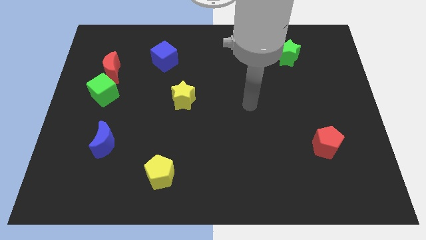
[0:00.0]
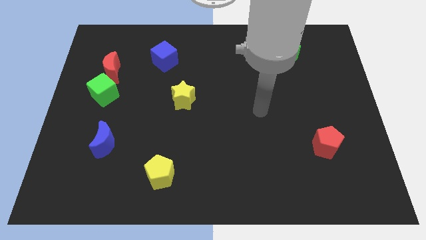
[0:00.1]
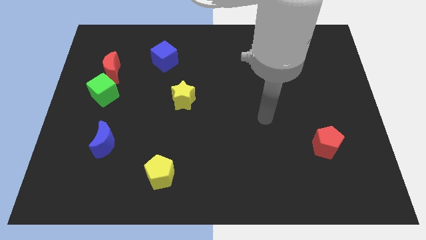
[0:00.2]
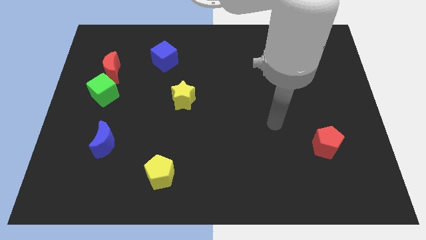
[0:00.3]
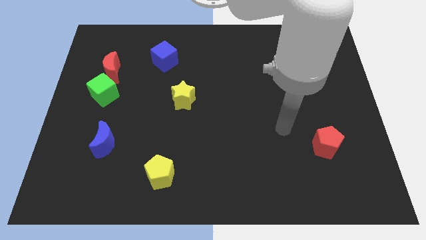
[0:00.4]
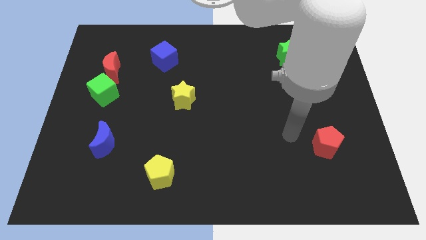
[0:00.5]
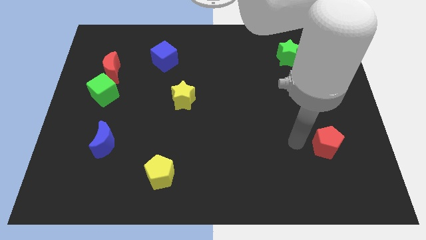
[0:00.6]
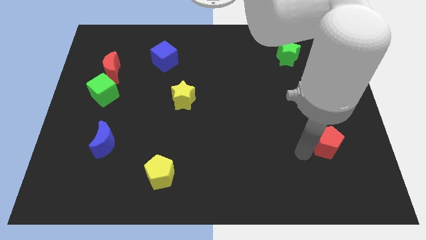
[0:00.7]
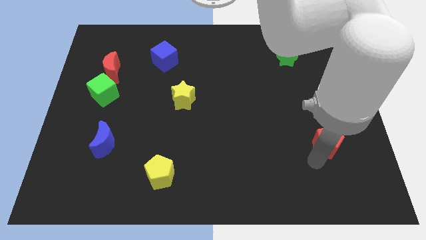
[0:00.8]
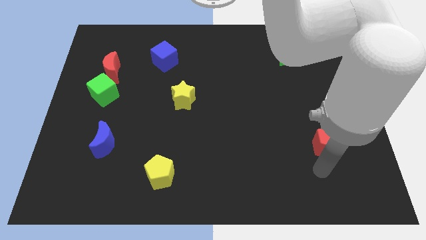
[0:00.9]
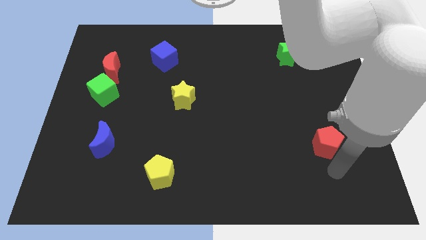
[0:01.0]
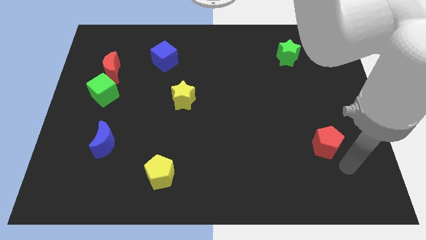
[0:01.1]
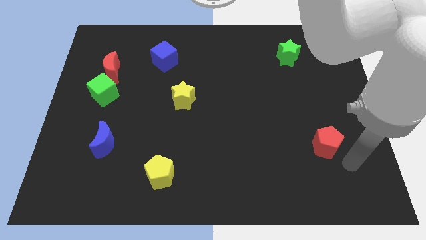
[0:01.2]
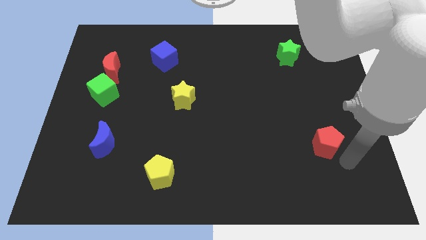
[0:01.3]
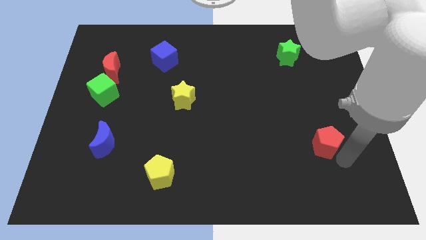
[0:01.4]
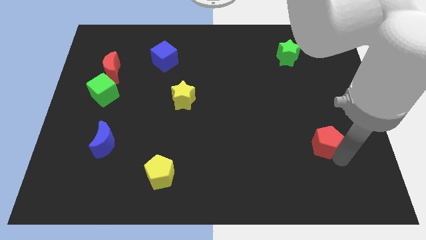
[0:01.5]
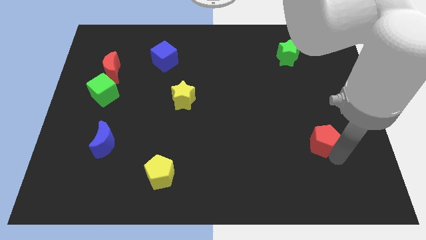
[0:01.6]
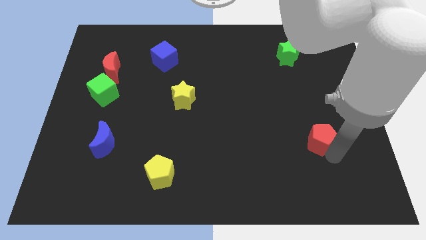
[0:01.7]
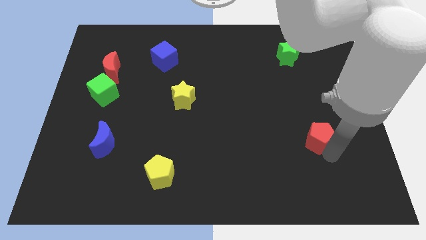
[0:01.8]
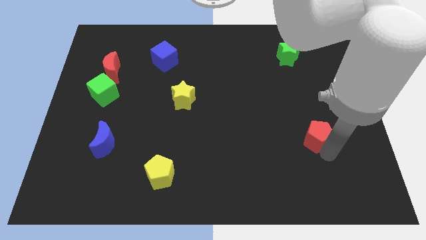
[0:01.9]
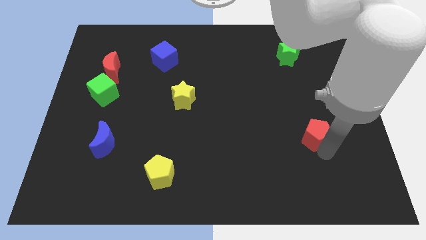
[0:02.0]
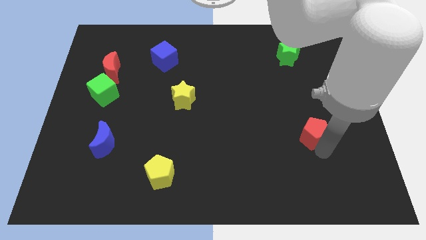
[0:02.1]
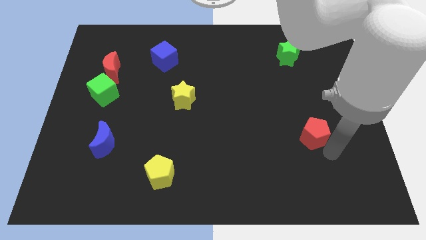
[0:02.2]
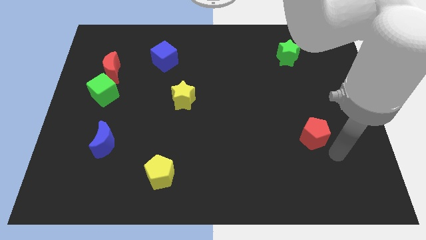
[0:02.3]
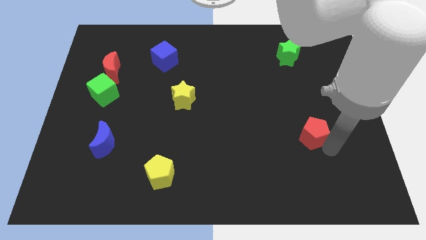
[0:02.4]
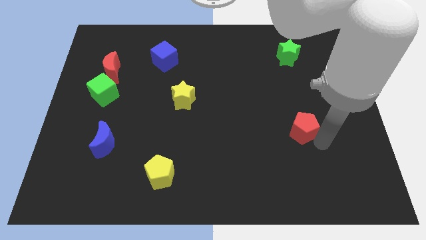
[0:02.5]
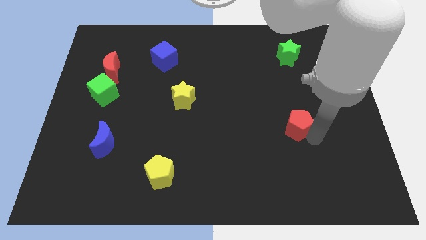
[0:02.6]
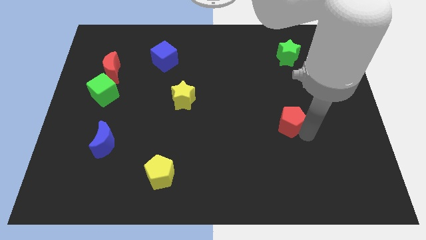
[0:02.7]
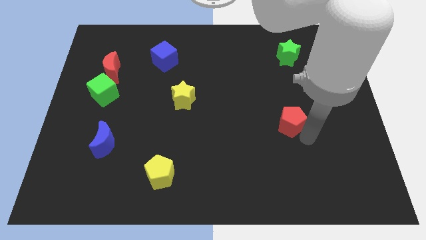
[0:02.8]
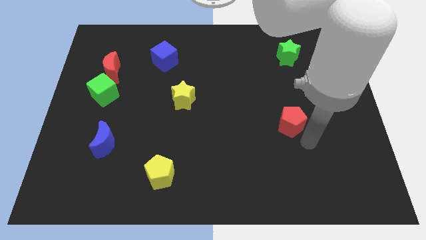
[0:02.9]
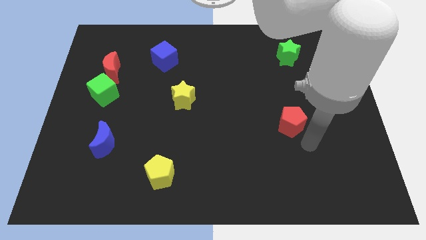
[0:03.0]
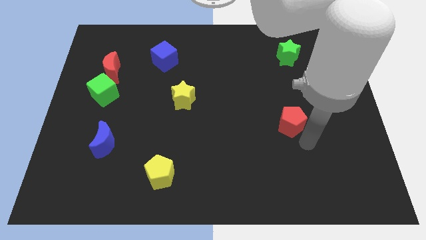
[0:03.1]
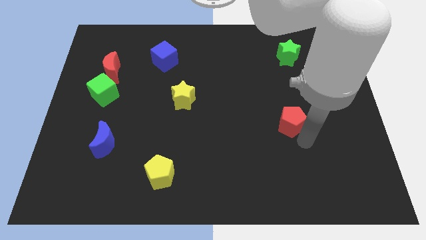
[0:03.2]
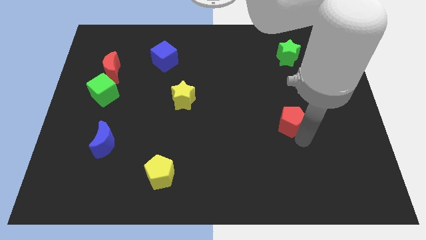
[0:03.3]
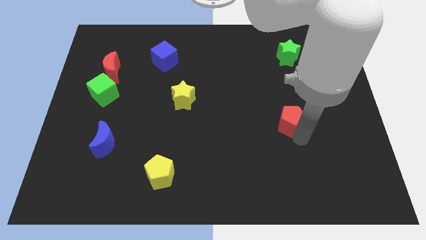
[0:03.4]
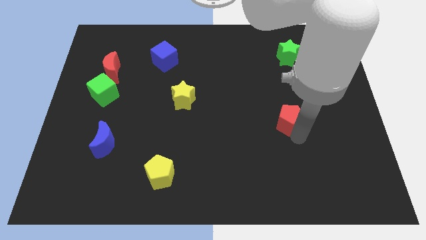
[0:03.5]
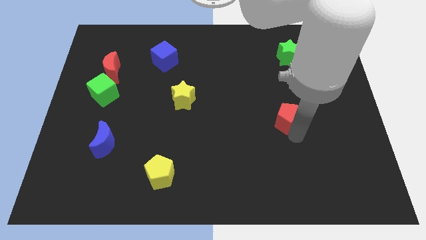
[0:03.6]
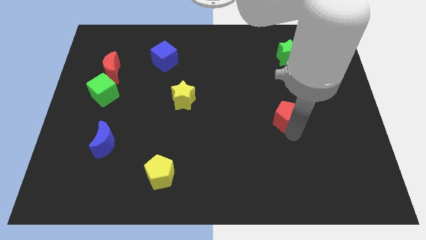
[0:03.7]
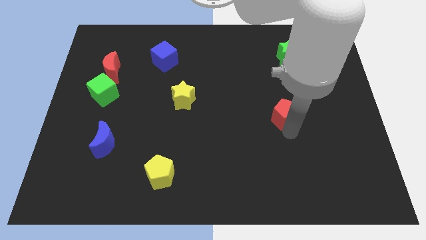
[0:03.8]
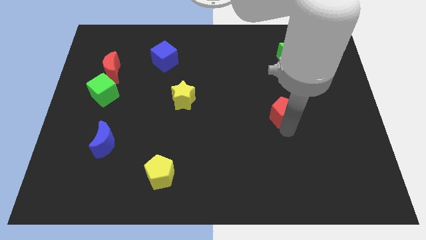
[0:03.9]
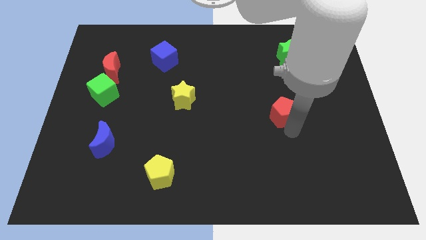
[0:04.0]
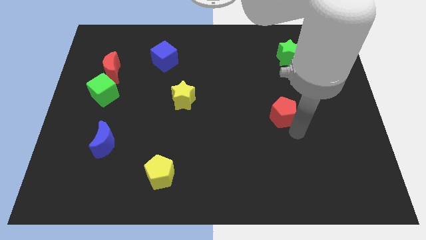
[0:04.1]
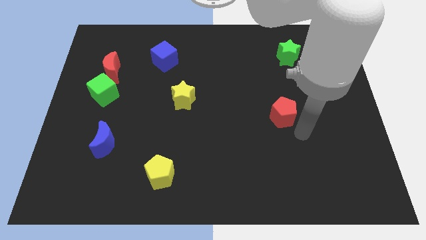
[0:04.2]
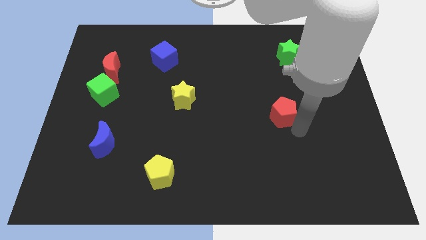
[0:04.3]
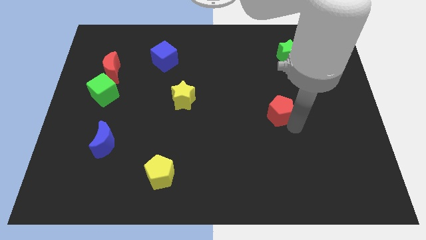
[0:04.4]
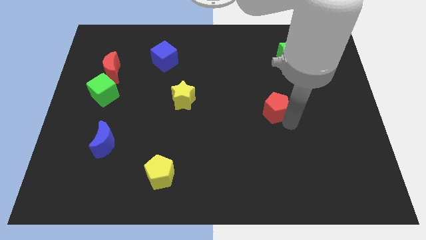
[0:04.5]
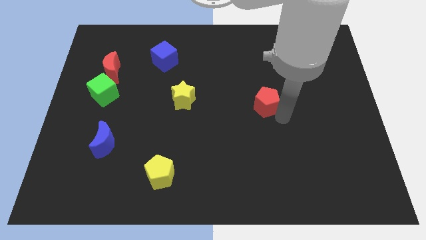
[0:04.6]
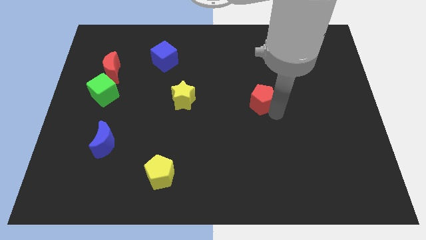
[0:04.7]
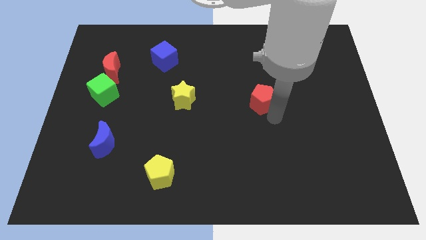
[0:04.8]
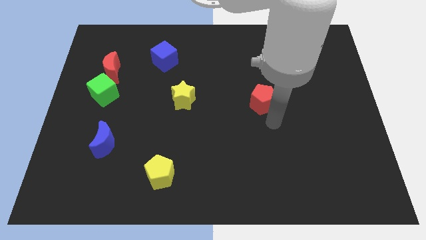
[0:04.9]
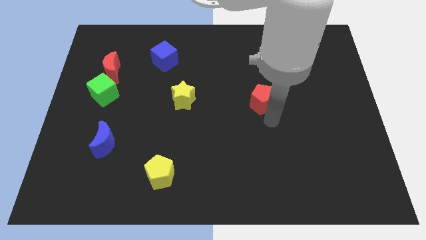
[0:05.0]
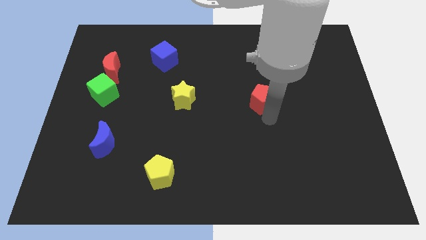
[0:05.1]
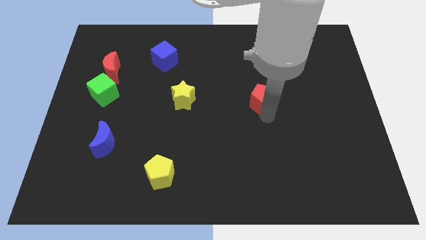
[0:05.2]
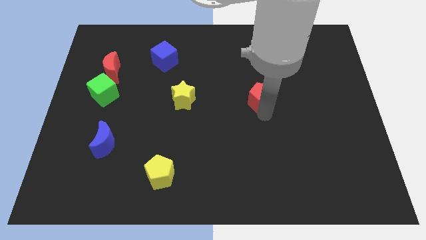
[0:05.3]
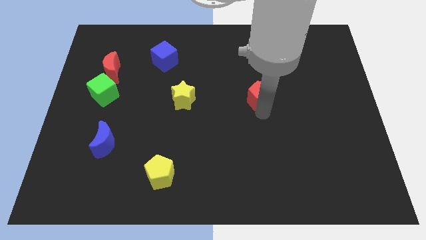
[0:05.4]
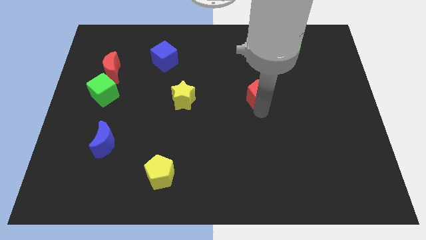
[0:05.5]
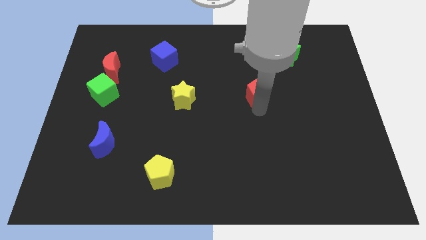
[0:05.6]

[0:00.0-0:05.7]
slide the red pentagon up and left diagonally

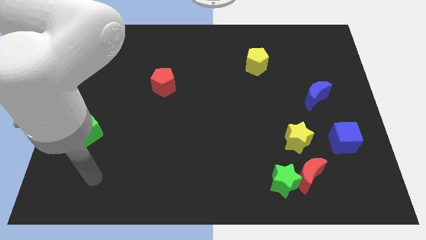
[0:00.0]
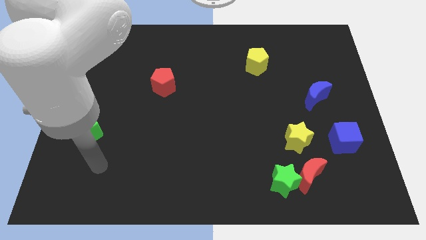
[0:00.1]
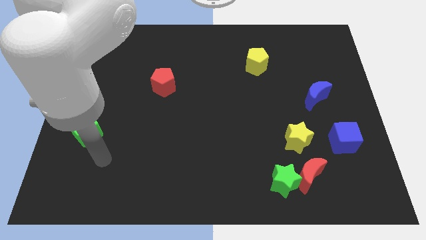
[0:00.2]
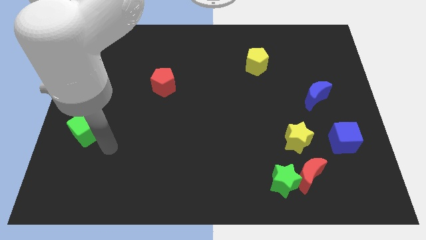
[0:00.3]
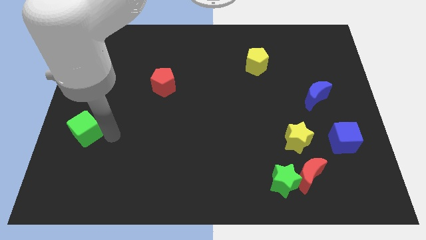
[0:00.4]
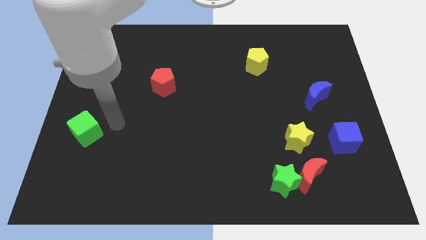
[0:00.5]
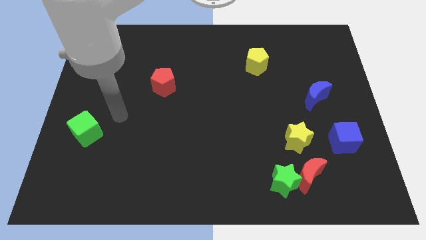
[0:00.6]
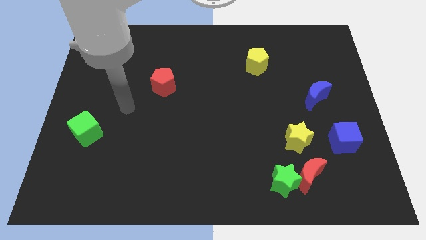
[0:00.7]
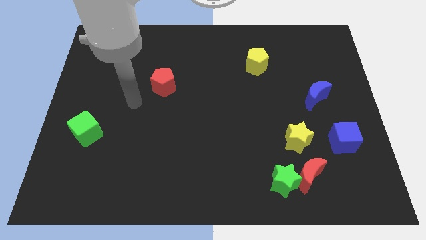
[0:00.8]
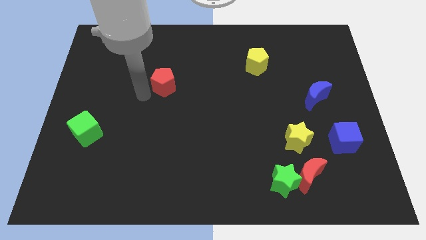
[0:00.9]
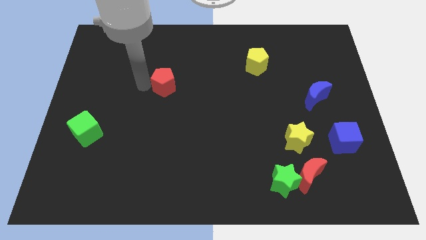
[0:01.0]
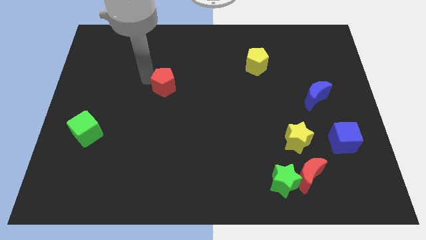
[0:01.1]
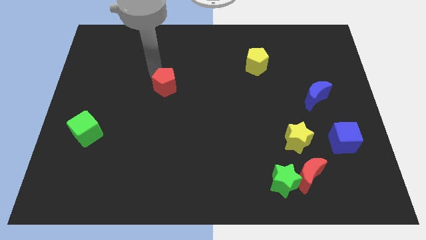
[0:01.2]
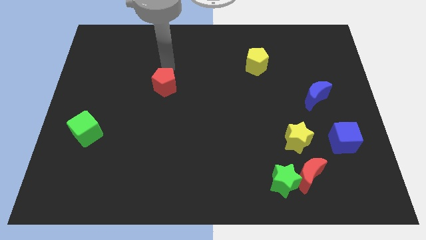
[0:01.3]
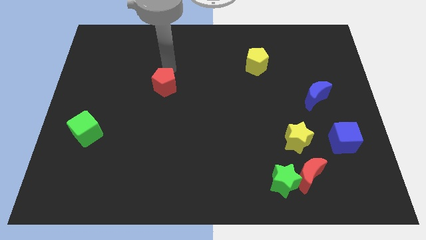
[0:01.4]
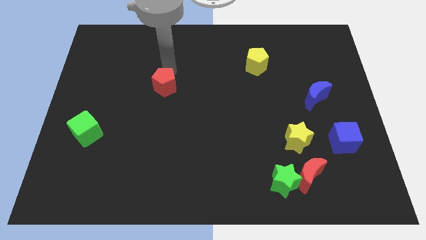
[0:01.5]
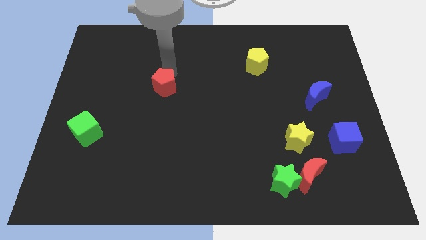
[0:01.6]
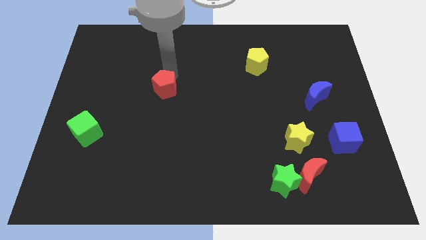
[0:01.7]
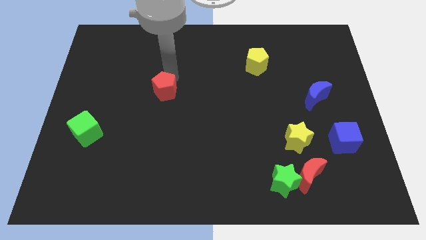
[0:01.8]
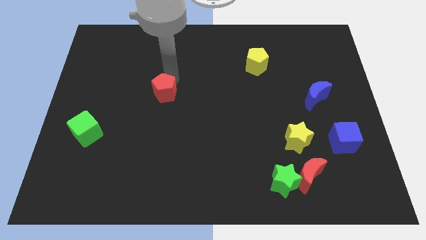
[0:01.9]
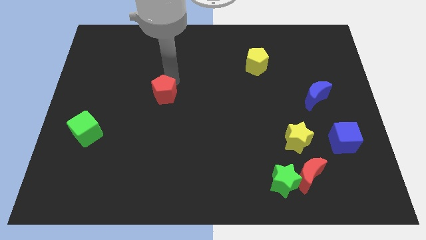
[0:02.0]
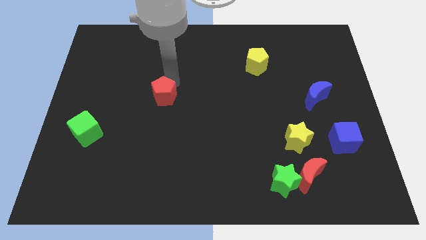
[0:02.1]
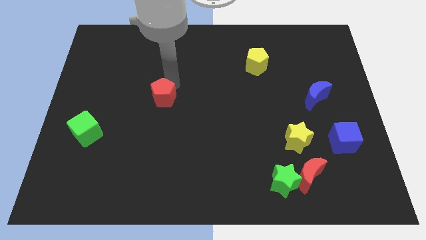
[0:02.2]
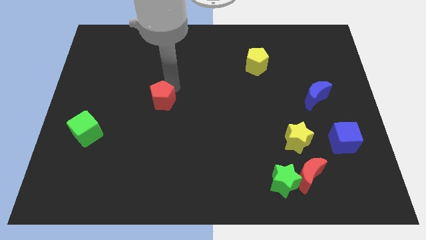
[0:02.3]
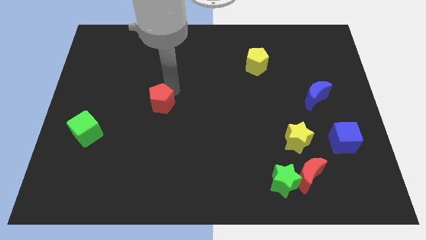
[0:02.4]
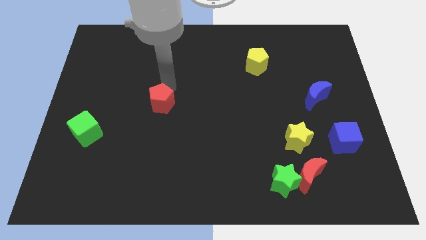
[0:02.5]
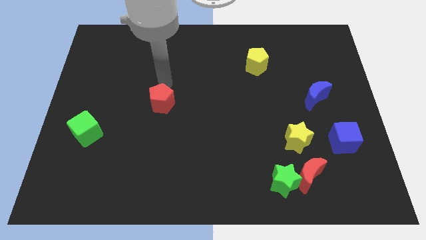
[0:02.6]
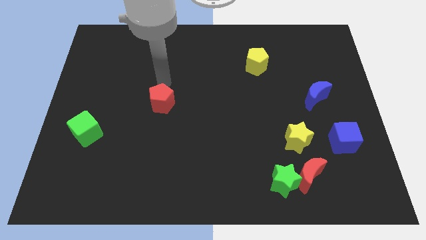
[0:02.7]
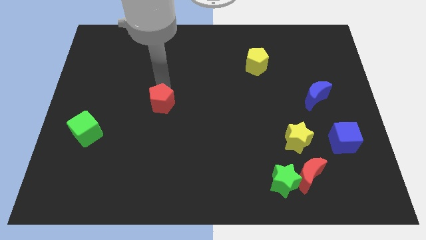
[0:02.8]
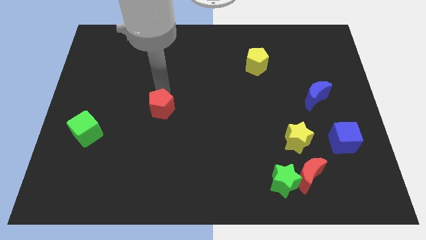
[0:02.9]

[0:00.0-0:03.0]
move the red pentagon downwards a bit
